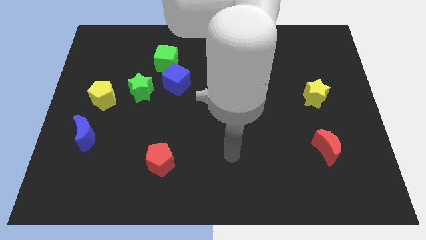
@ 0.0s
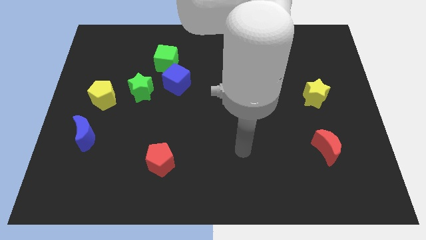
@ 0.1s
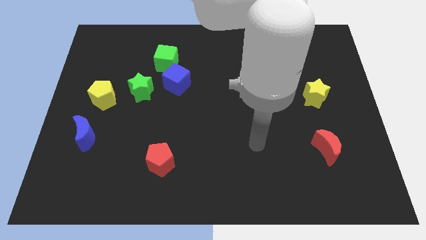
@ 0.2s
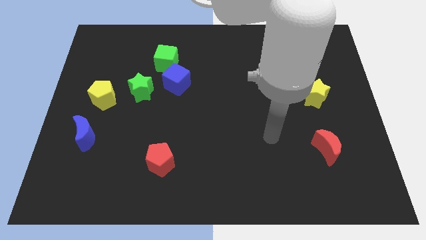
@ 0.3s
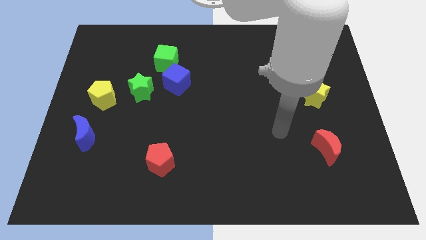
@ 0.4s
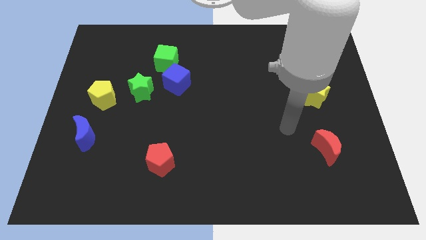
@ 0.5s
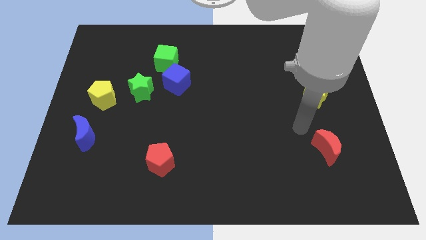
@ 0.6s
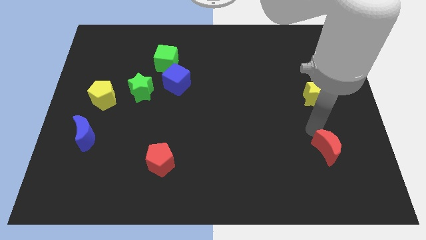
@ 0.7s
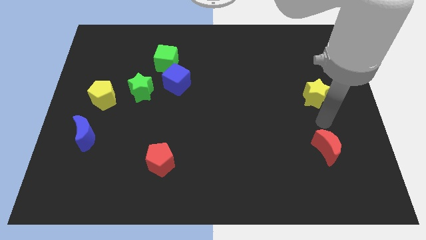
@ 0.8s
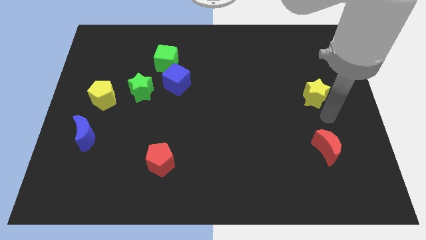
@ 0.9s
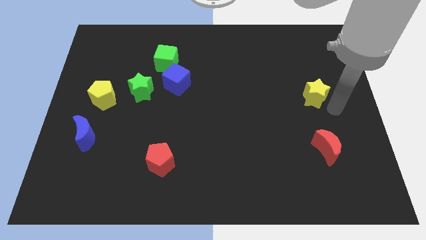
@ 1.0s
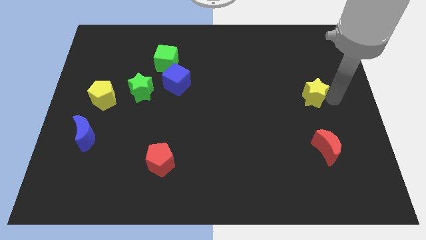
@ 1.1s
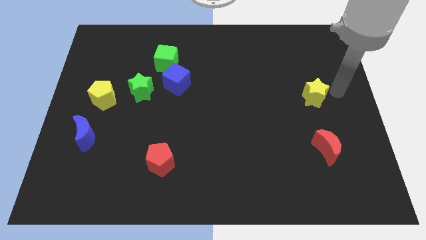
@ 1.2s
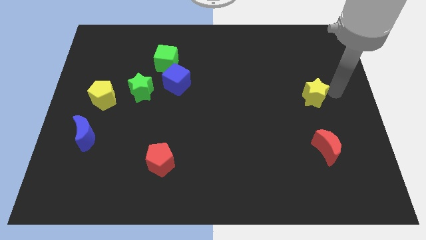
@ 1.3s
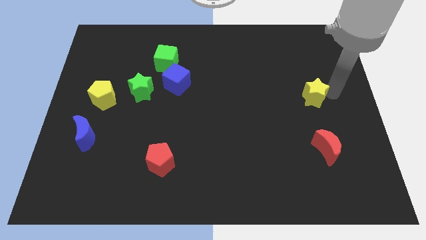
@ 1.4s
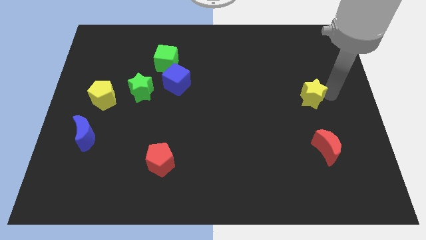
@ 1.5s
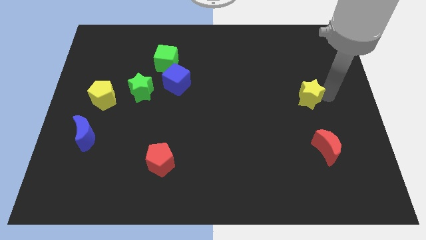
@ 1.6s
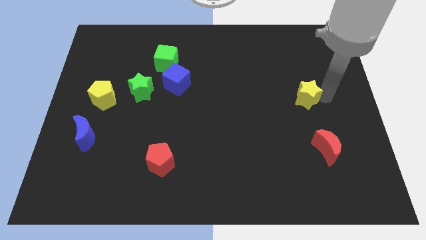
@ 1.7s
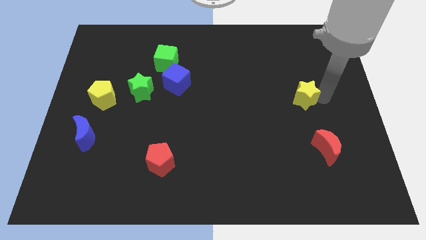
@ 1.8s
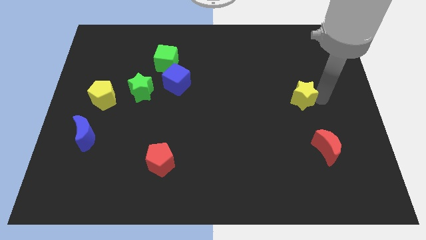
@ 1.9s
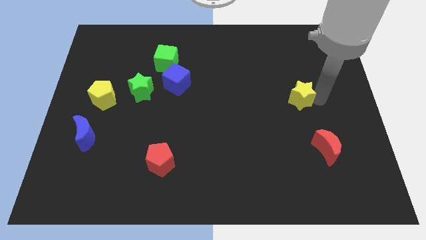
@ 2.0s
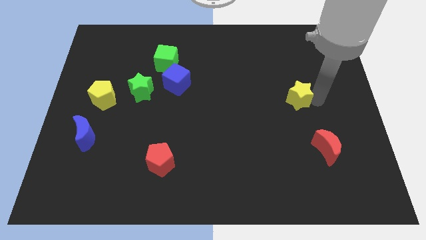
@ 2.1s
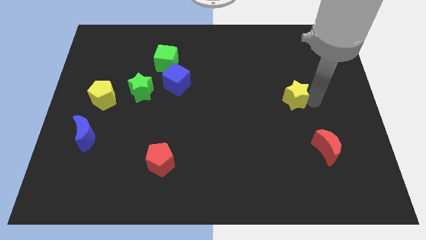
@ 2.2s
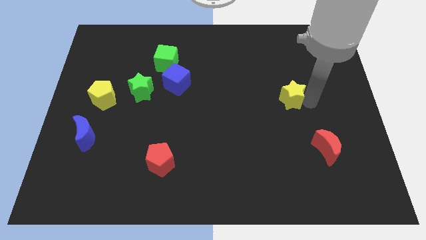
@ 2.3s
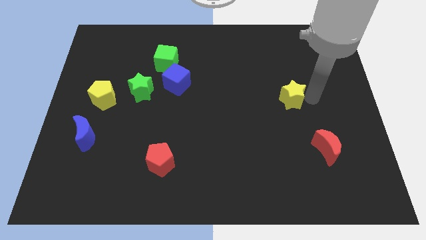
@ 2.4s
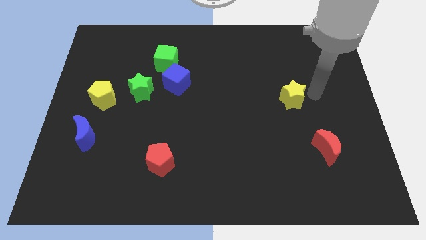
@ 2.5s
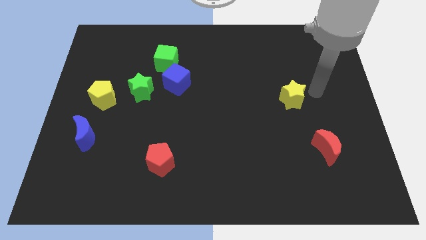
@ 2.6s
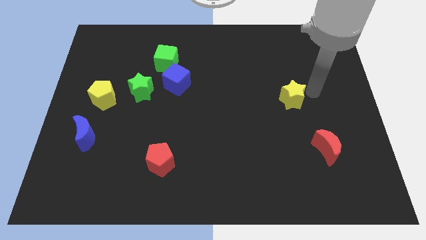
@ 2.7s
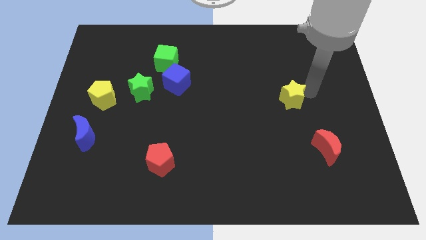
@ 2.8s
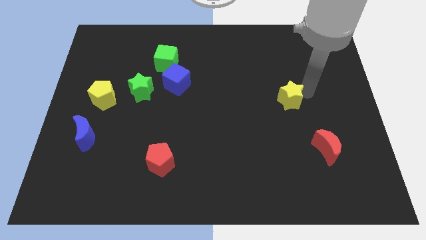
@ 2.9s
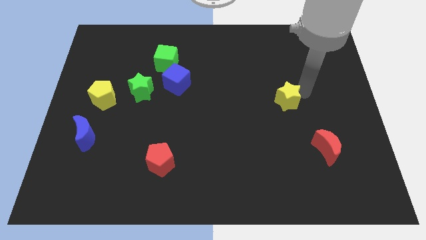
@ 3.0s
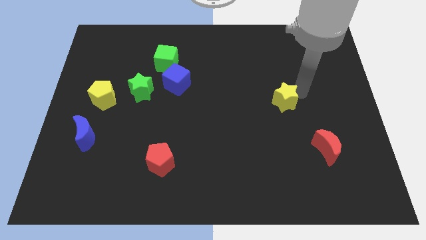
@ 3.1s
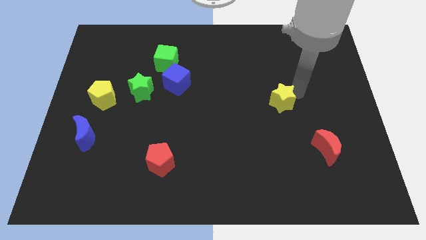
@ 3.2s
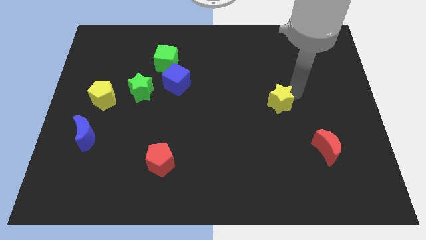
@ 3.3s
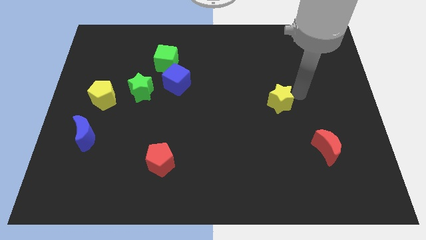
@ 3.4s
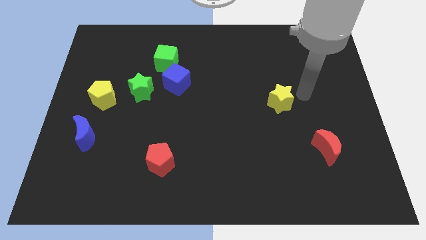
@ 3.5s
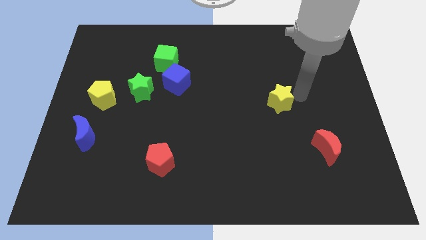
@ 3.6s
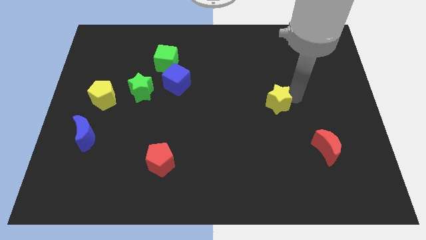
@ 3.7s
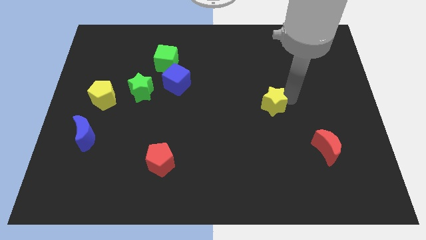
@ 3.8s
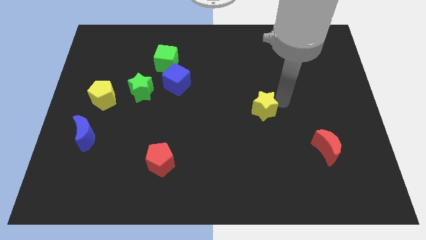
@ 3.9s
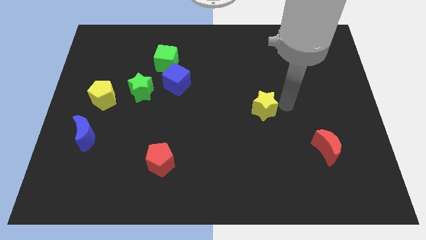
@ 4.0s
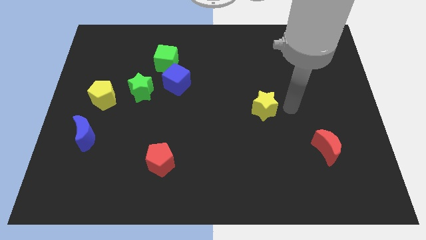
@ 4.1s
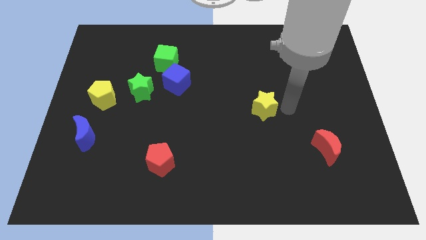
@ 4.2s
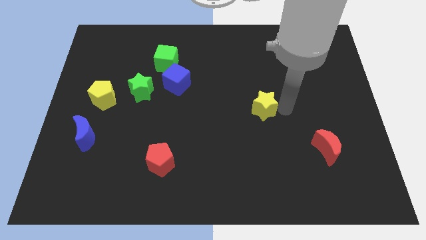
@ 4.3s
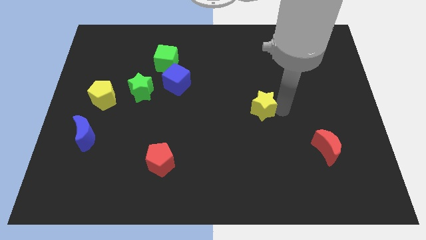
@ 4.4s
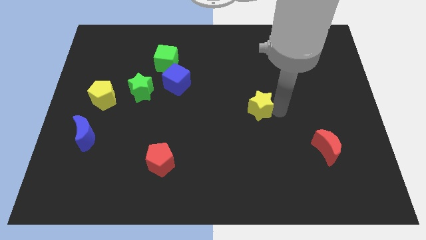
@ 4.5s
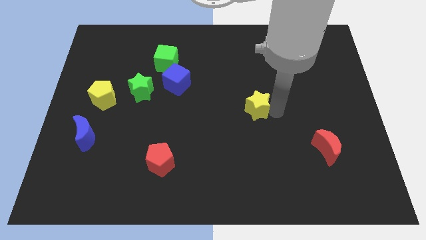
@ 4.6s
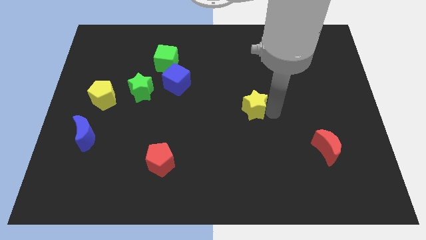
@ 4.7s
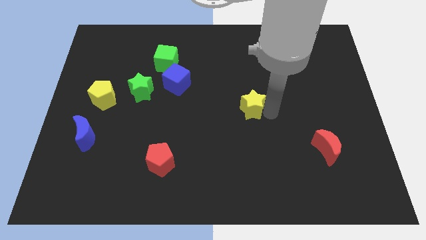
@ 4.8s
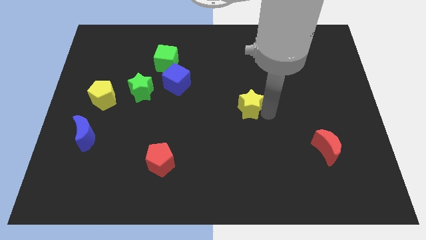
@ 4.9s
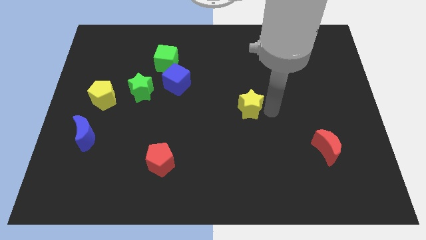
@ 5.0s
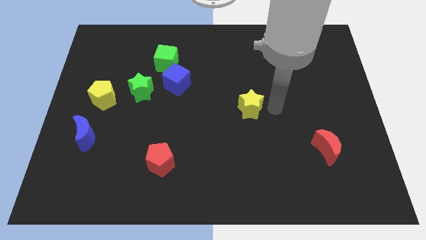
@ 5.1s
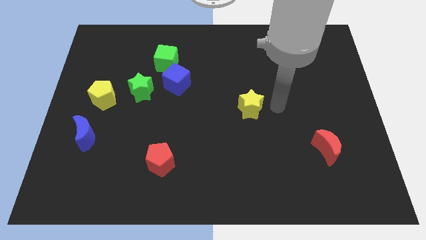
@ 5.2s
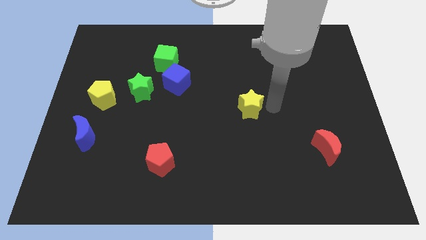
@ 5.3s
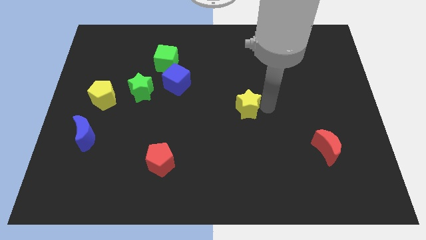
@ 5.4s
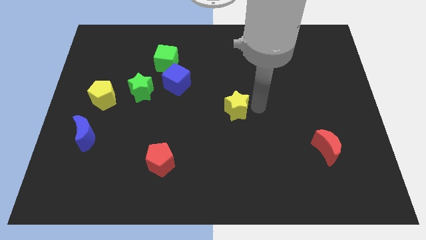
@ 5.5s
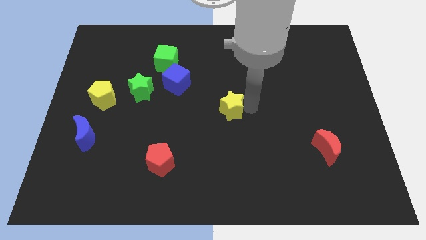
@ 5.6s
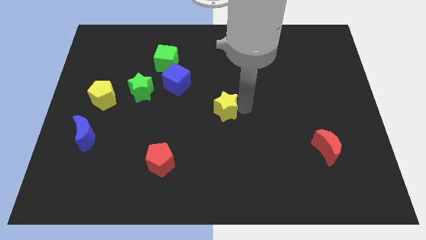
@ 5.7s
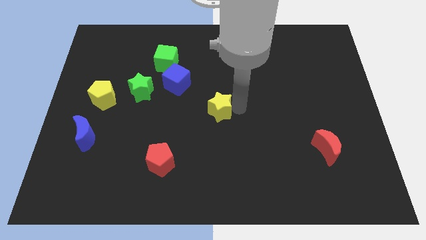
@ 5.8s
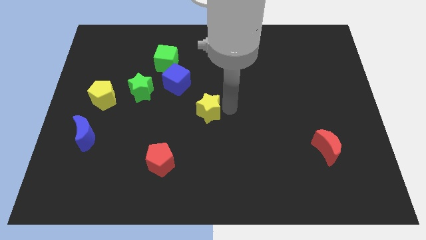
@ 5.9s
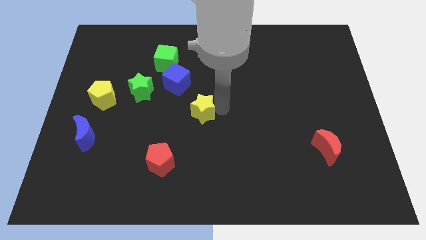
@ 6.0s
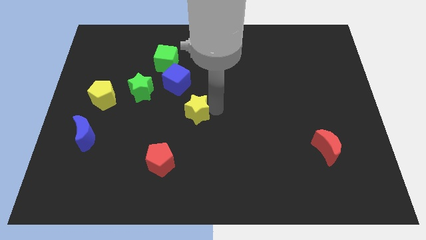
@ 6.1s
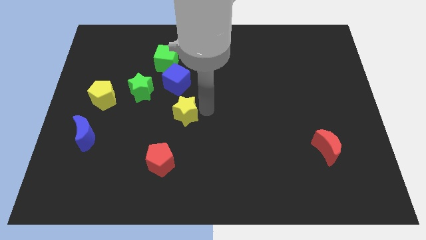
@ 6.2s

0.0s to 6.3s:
put the yellow star to the top side of the red pentagon
